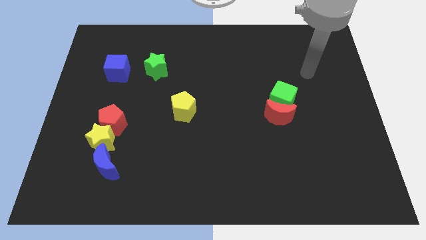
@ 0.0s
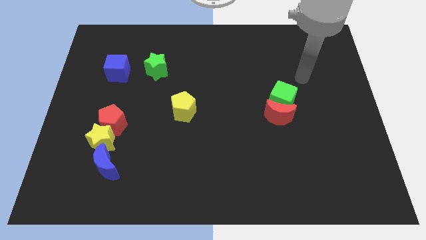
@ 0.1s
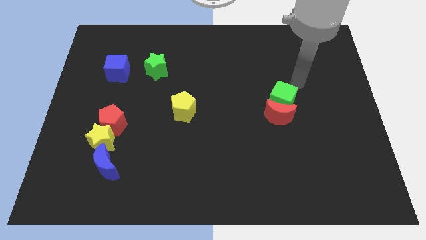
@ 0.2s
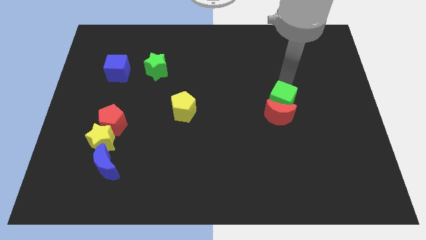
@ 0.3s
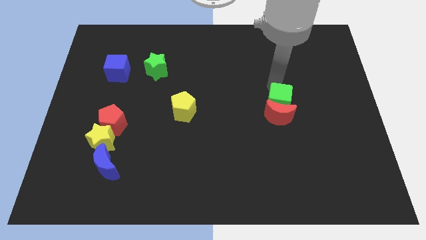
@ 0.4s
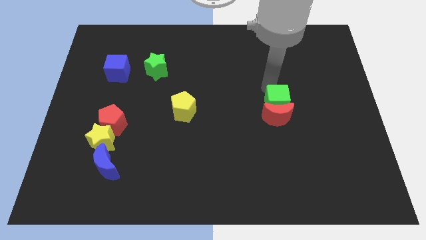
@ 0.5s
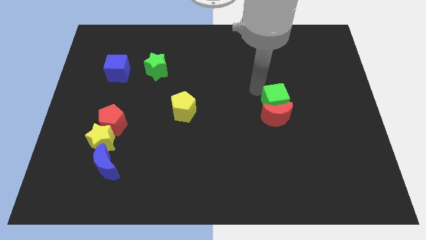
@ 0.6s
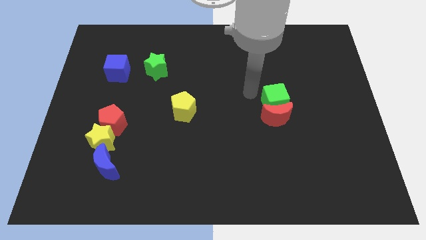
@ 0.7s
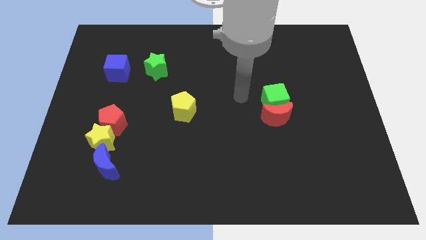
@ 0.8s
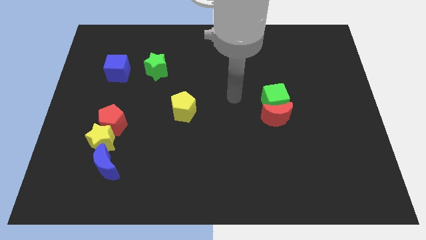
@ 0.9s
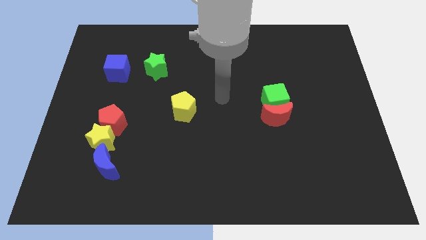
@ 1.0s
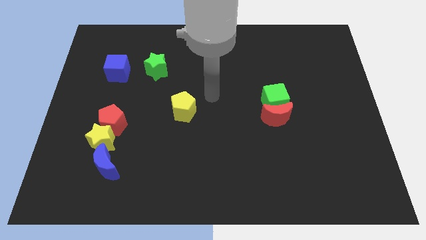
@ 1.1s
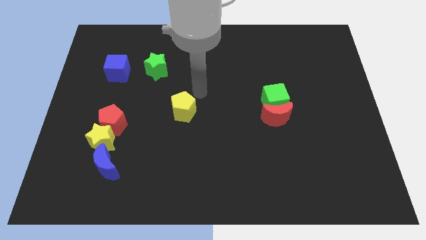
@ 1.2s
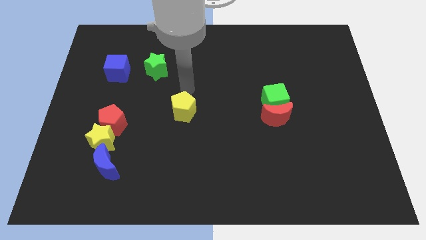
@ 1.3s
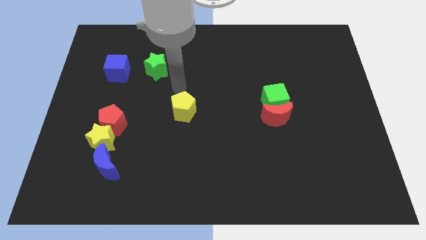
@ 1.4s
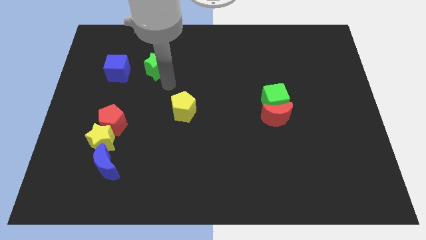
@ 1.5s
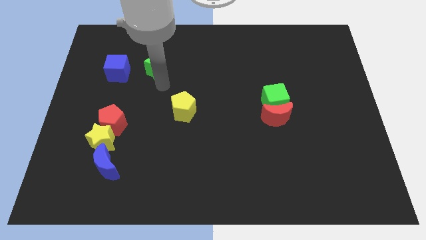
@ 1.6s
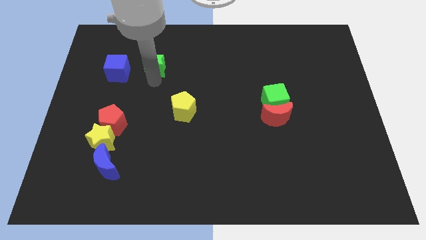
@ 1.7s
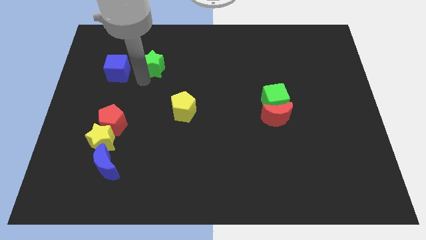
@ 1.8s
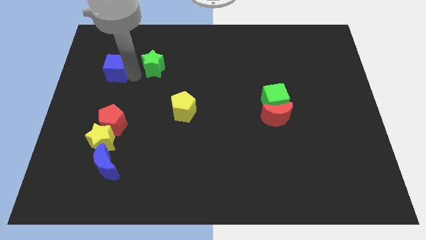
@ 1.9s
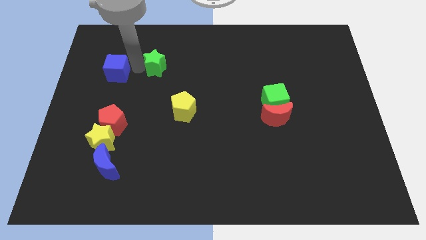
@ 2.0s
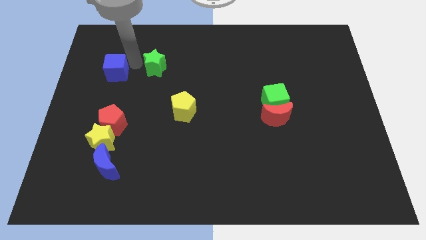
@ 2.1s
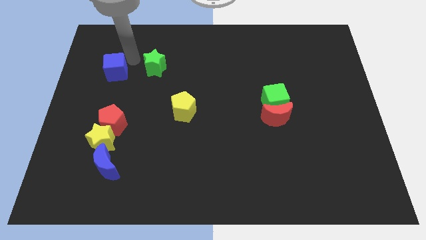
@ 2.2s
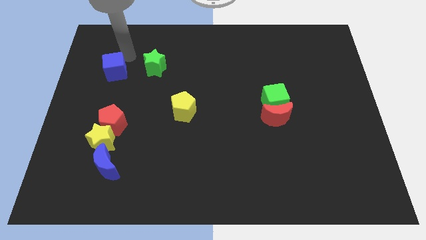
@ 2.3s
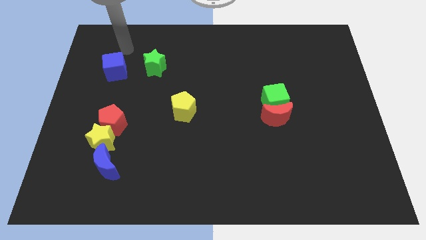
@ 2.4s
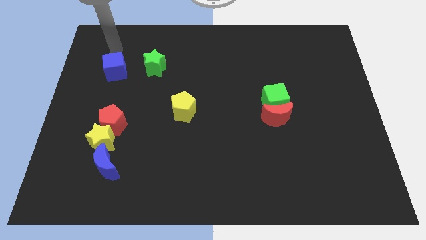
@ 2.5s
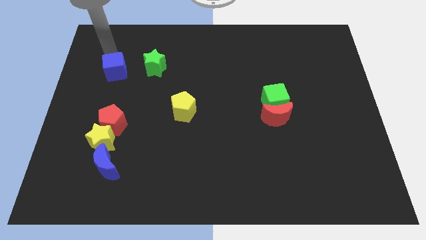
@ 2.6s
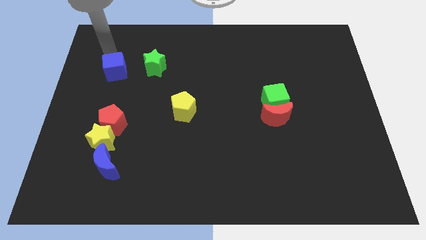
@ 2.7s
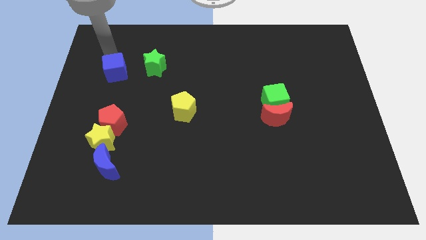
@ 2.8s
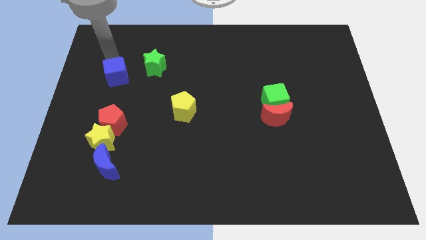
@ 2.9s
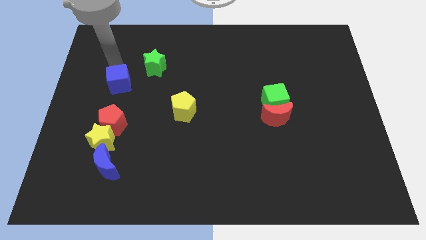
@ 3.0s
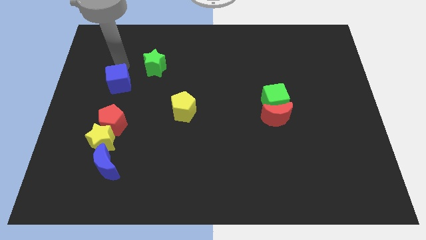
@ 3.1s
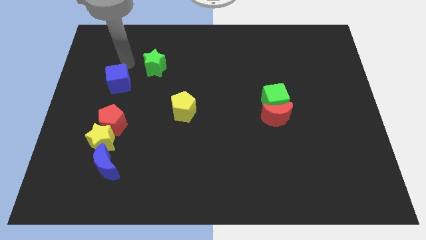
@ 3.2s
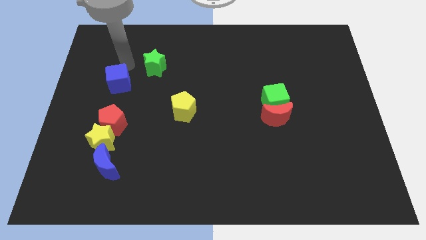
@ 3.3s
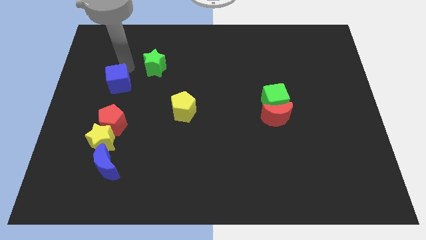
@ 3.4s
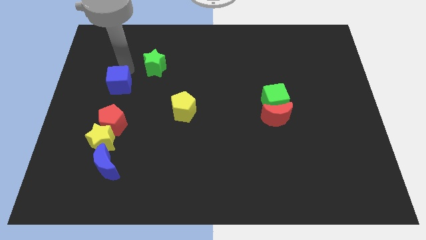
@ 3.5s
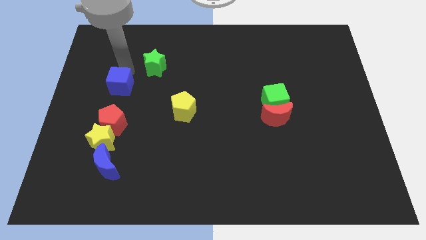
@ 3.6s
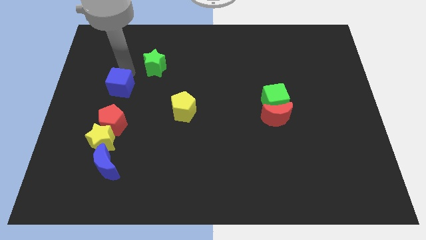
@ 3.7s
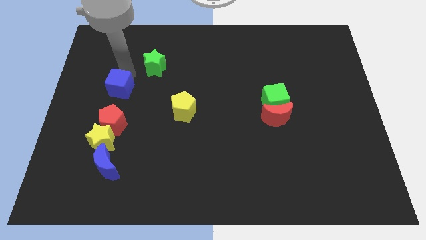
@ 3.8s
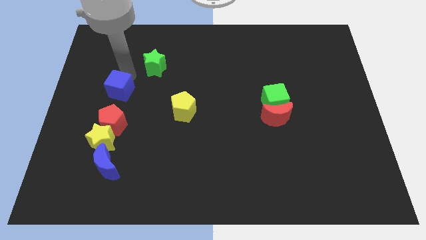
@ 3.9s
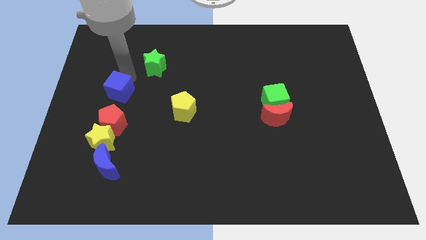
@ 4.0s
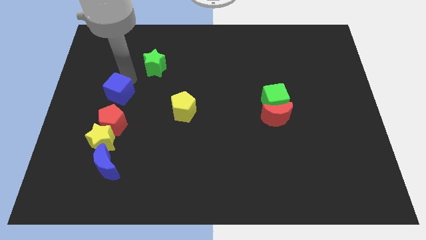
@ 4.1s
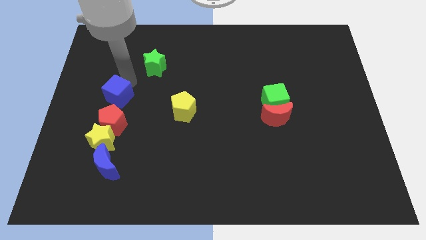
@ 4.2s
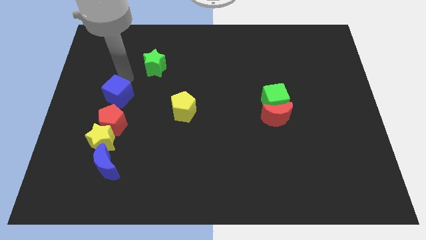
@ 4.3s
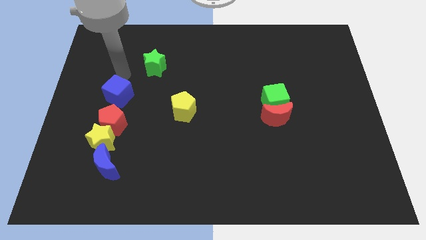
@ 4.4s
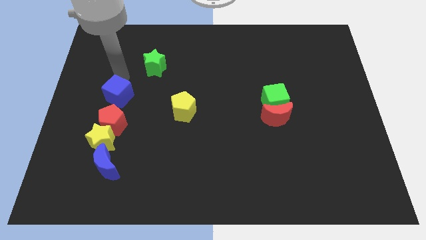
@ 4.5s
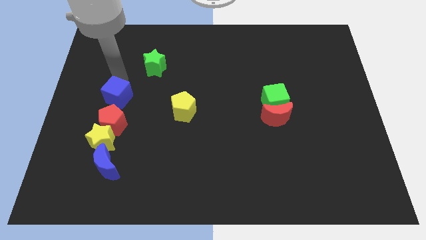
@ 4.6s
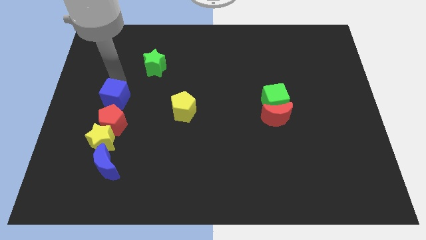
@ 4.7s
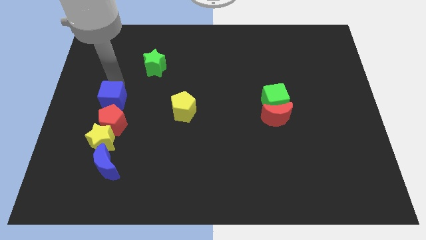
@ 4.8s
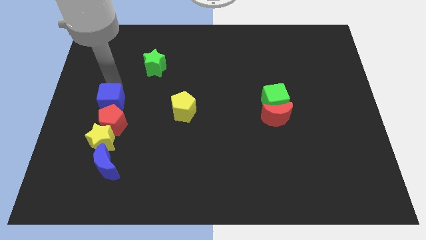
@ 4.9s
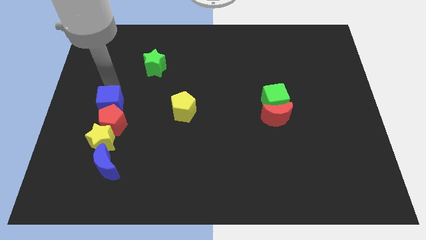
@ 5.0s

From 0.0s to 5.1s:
move the blue cube towards the red pentagon

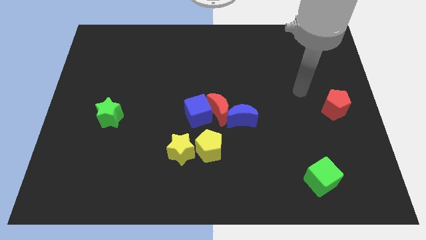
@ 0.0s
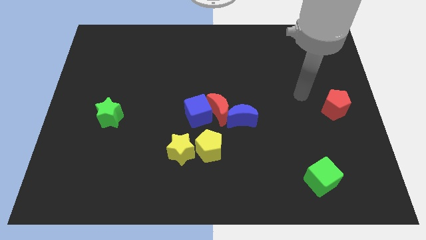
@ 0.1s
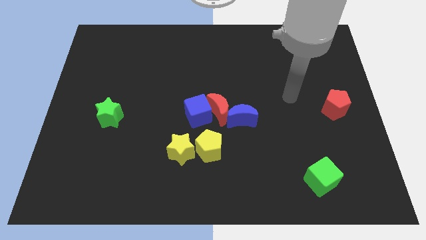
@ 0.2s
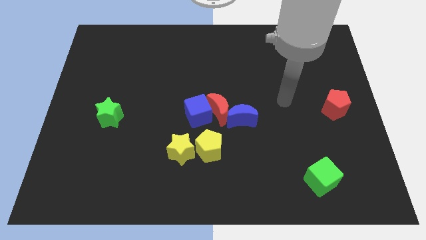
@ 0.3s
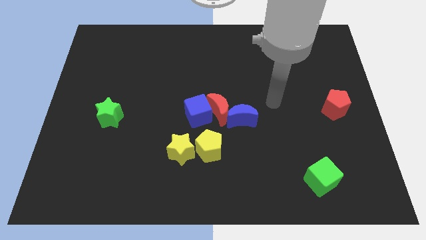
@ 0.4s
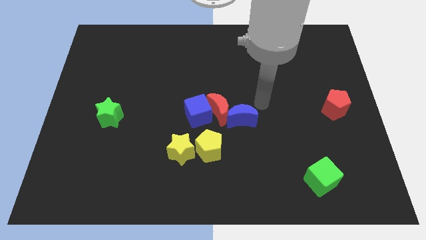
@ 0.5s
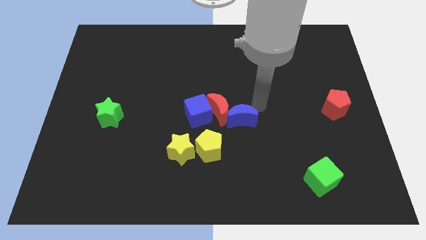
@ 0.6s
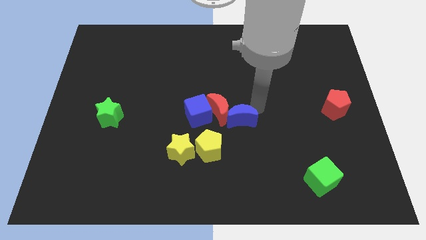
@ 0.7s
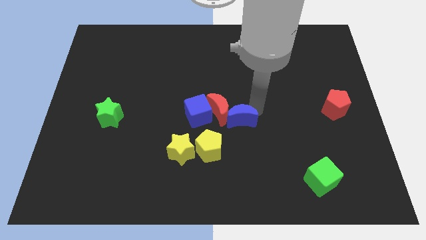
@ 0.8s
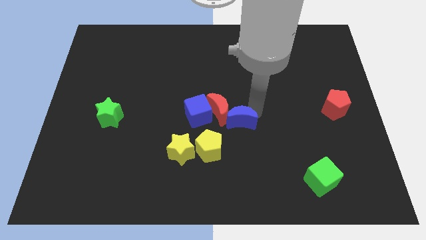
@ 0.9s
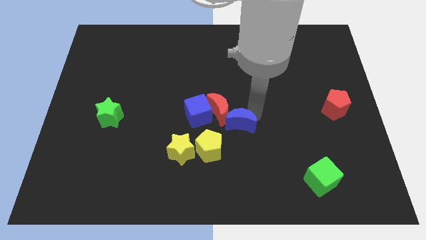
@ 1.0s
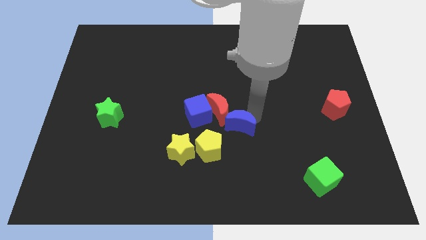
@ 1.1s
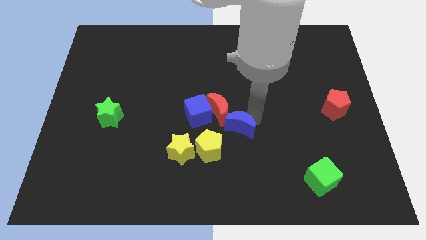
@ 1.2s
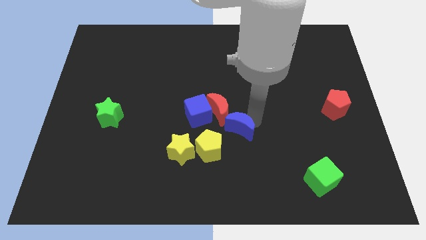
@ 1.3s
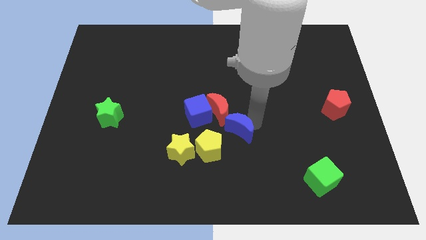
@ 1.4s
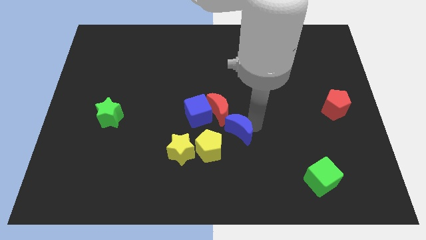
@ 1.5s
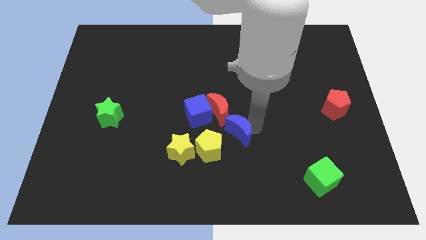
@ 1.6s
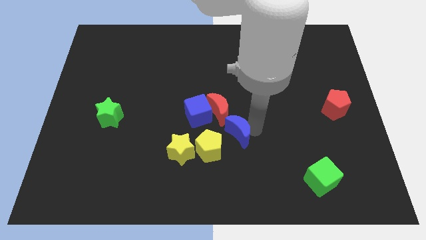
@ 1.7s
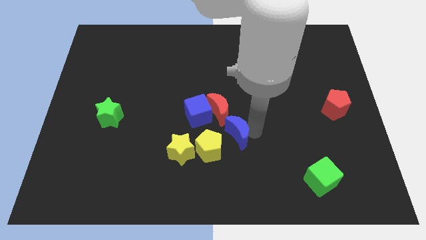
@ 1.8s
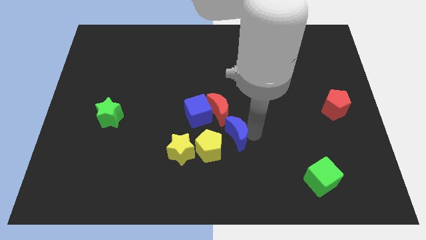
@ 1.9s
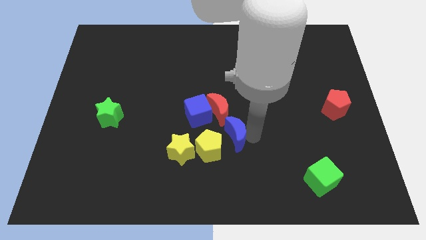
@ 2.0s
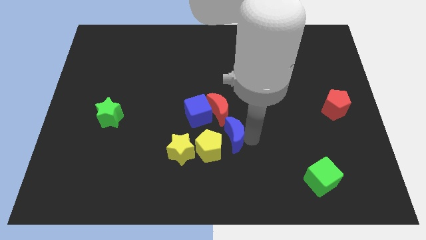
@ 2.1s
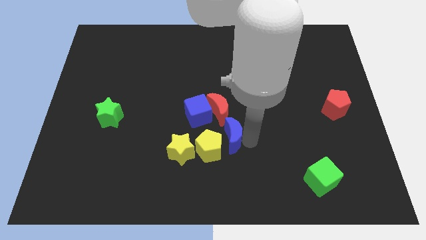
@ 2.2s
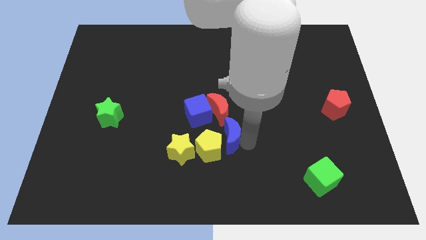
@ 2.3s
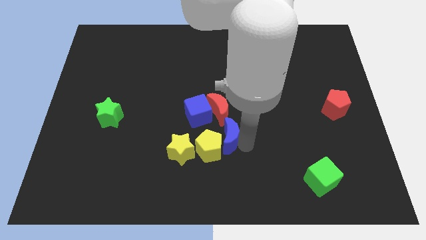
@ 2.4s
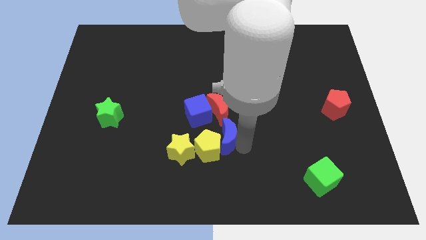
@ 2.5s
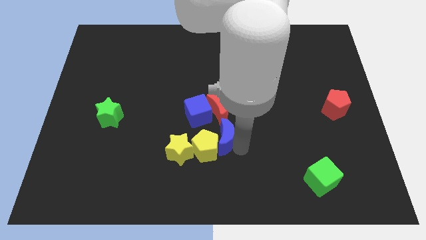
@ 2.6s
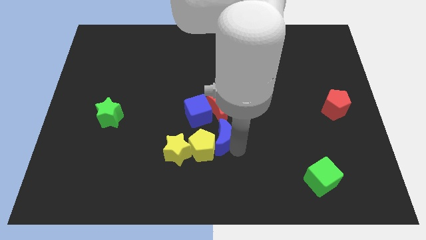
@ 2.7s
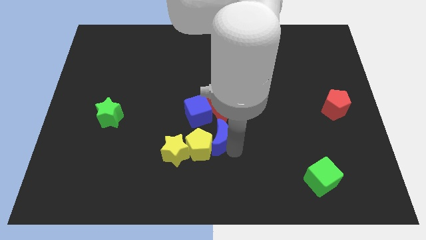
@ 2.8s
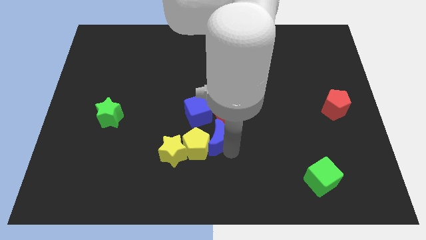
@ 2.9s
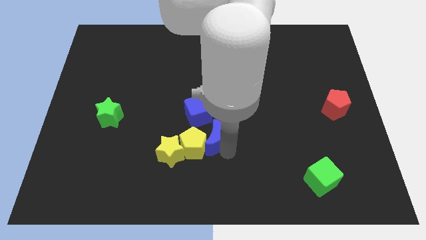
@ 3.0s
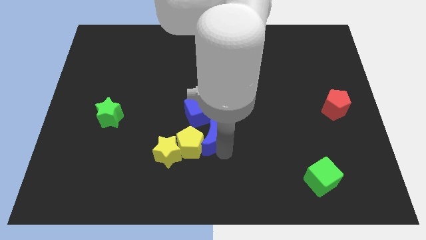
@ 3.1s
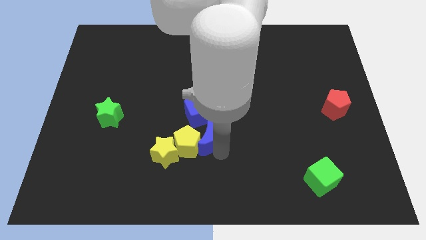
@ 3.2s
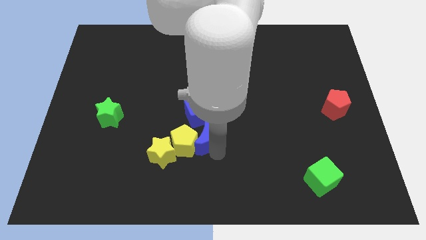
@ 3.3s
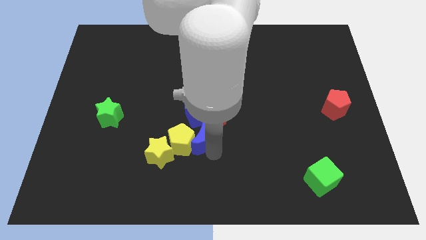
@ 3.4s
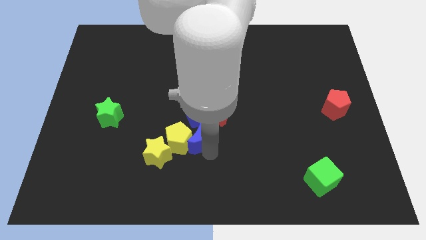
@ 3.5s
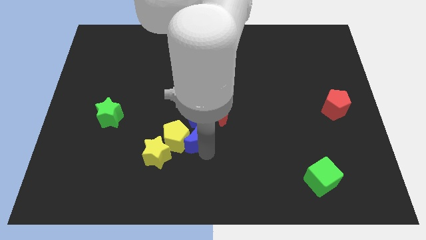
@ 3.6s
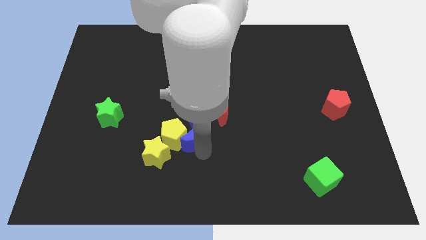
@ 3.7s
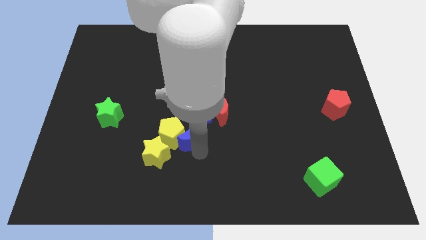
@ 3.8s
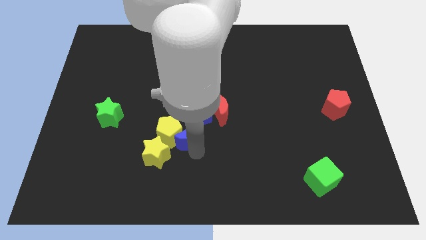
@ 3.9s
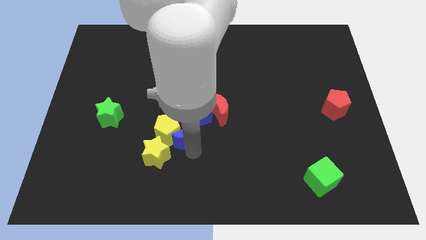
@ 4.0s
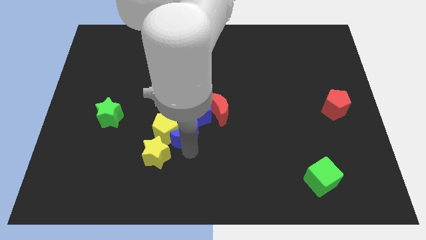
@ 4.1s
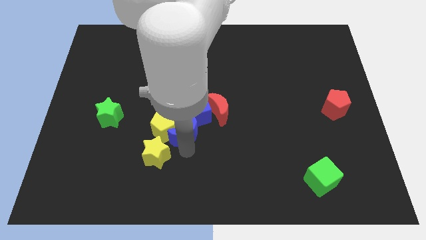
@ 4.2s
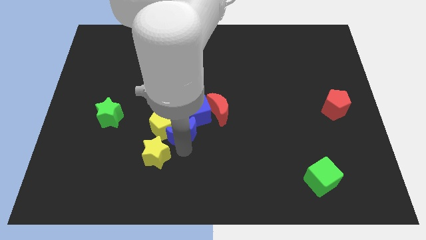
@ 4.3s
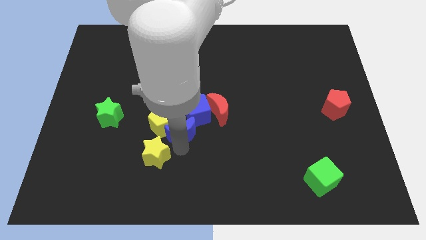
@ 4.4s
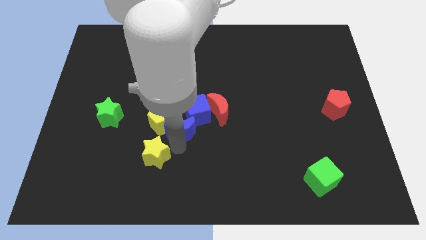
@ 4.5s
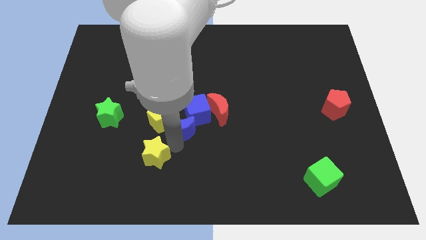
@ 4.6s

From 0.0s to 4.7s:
push the blue moon towards the blue cube
